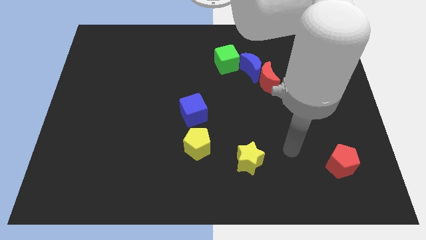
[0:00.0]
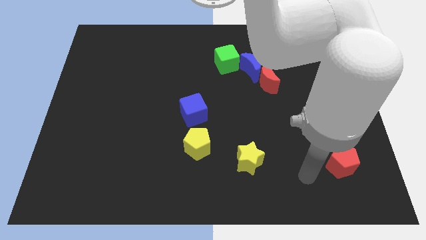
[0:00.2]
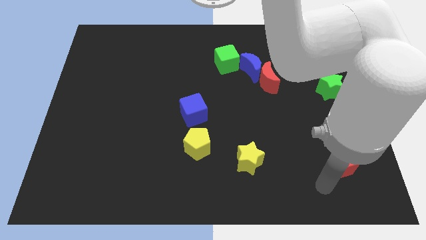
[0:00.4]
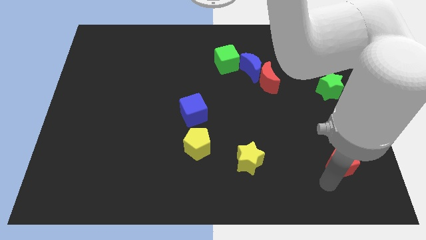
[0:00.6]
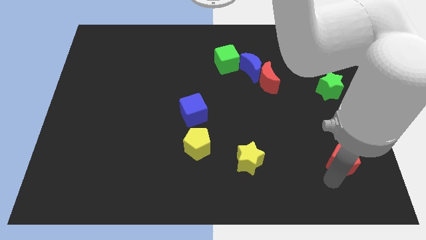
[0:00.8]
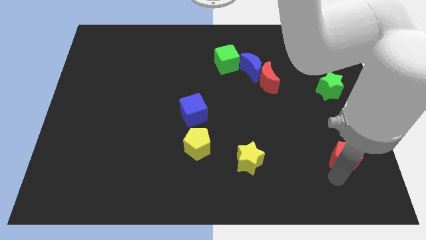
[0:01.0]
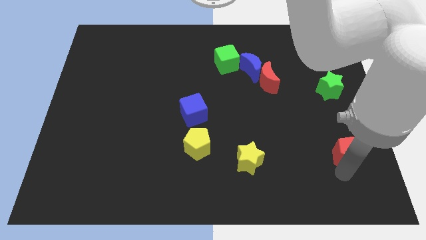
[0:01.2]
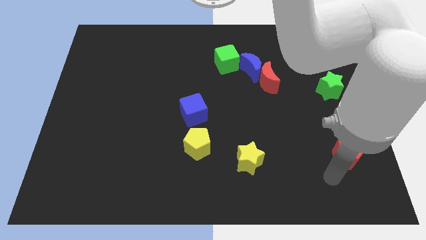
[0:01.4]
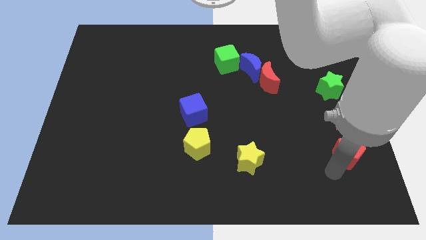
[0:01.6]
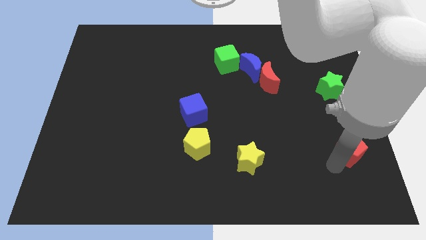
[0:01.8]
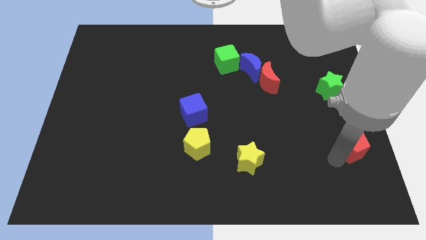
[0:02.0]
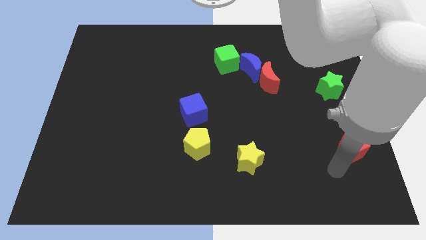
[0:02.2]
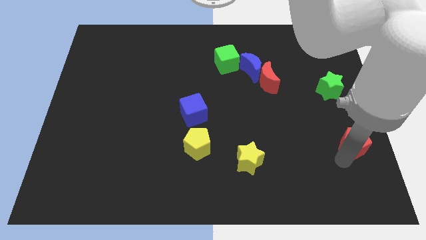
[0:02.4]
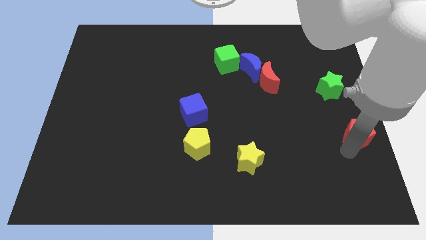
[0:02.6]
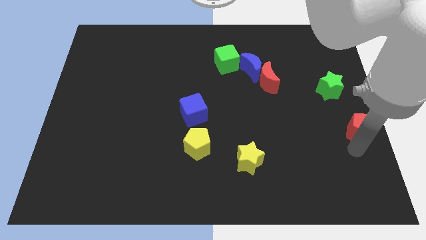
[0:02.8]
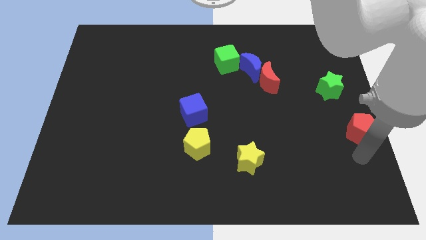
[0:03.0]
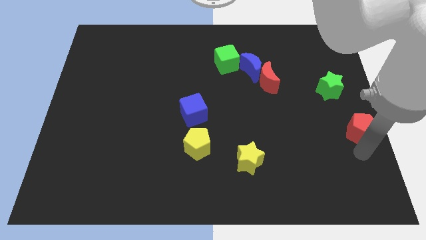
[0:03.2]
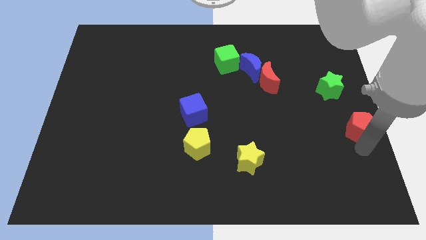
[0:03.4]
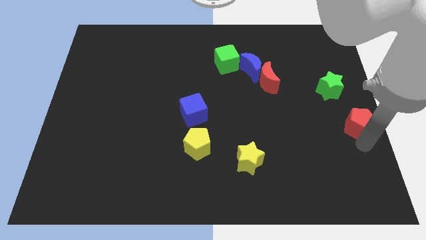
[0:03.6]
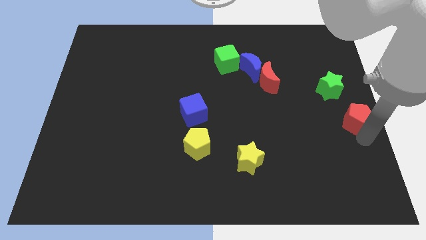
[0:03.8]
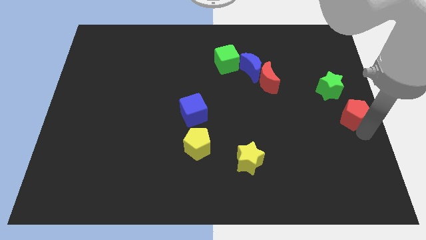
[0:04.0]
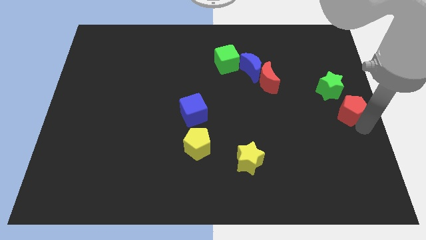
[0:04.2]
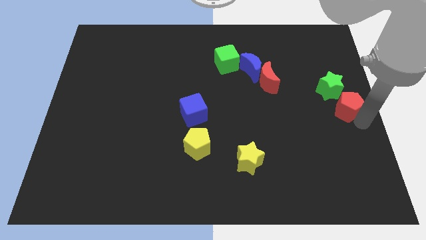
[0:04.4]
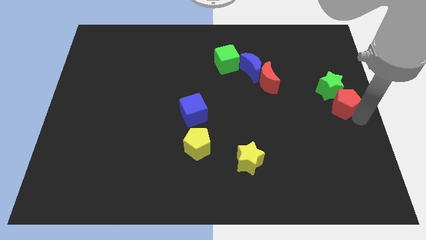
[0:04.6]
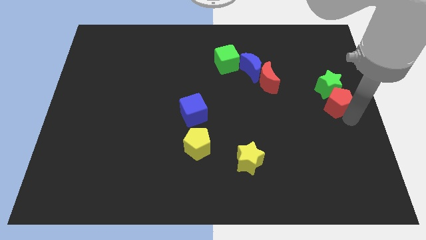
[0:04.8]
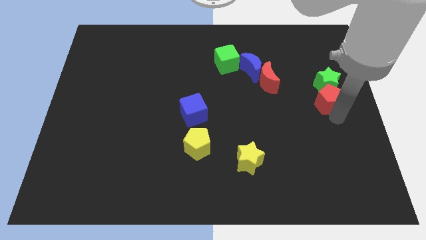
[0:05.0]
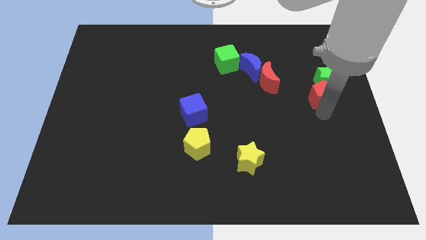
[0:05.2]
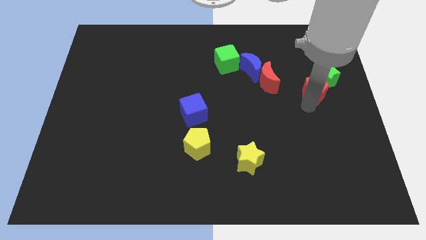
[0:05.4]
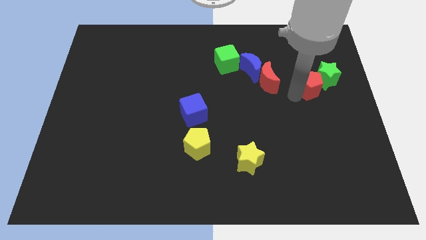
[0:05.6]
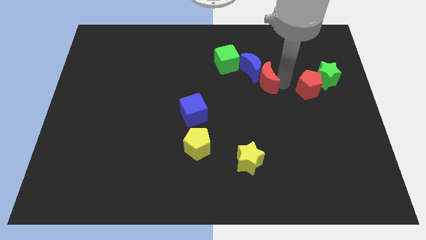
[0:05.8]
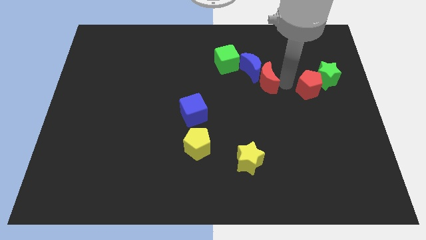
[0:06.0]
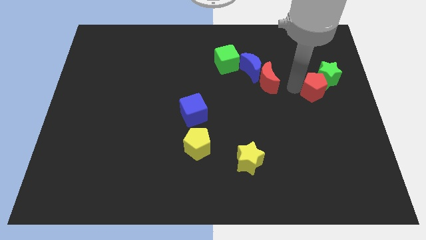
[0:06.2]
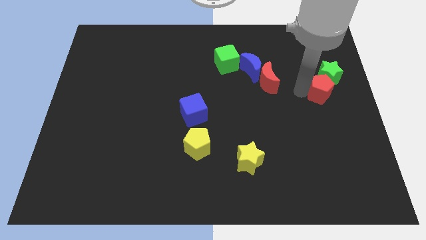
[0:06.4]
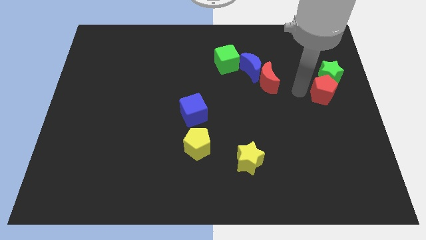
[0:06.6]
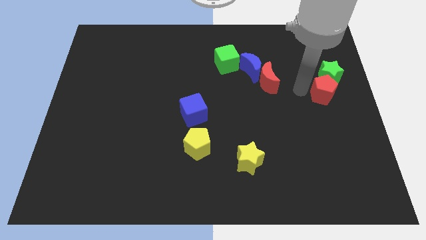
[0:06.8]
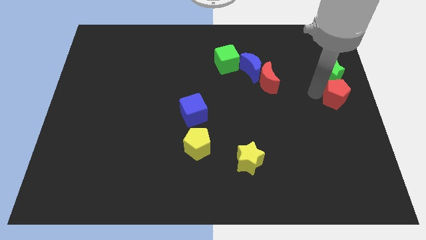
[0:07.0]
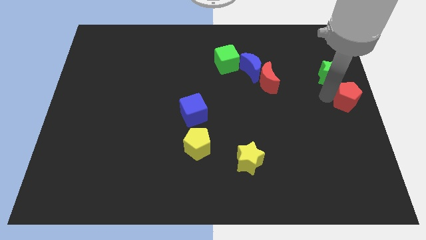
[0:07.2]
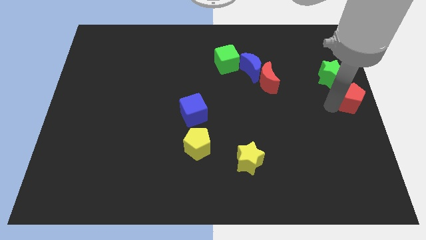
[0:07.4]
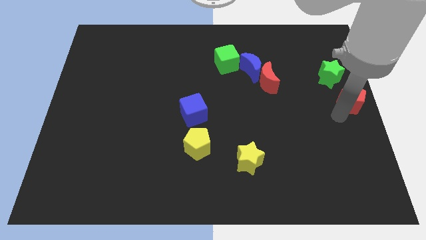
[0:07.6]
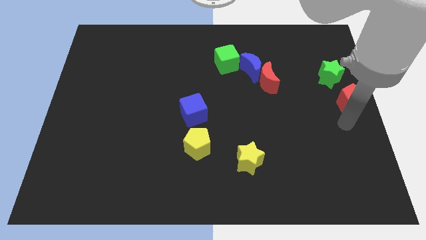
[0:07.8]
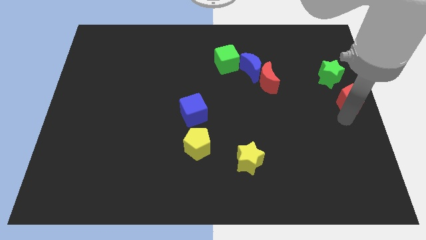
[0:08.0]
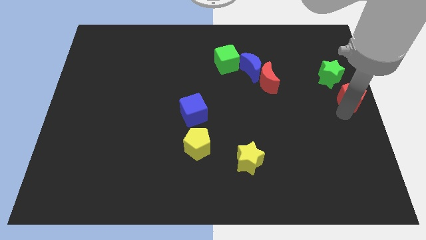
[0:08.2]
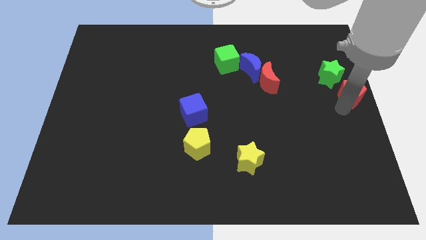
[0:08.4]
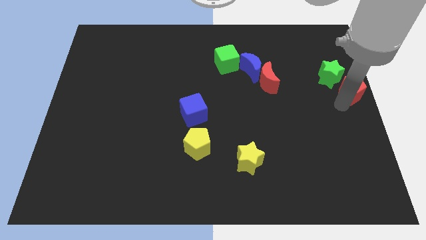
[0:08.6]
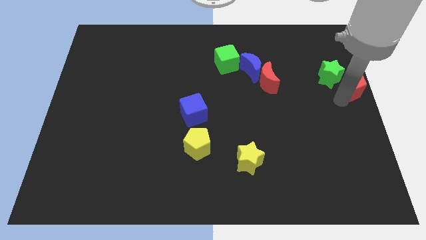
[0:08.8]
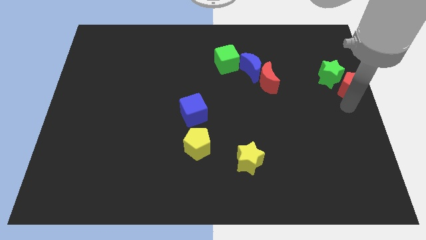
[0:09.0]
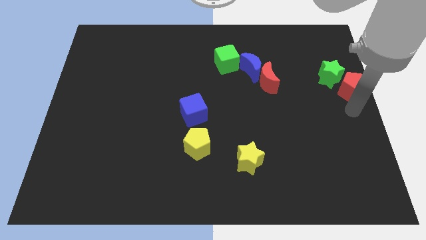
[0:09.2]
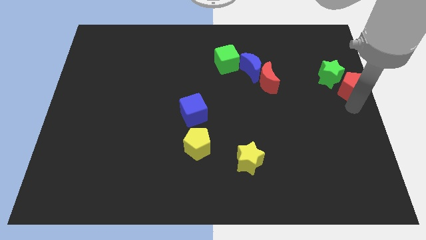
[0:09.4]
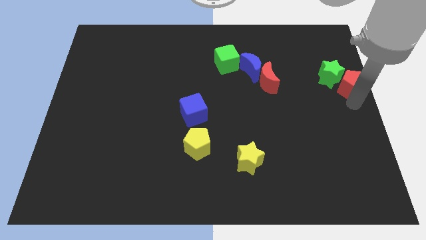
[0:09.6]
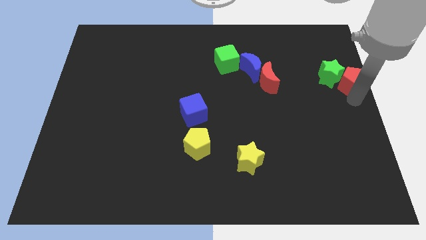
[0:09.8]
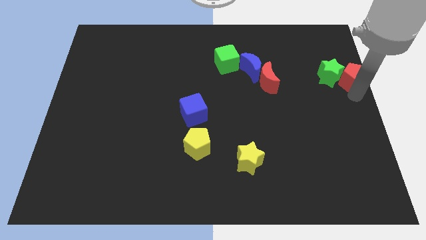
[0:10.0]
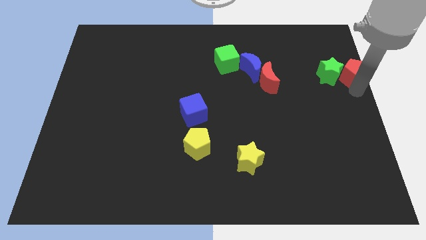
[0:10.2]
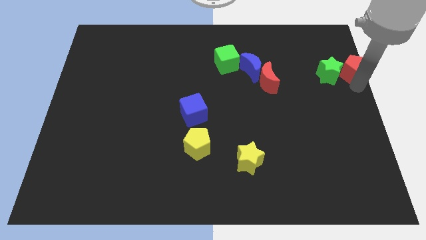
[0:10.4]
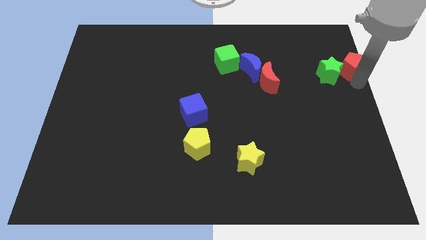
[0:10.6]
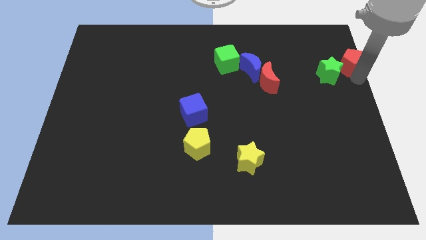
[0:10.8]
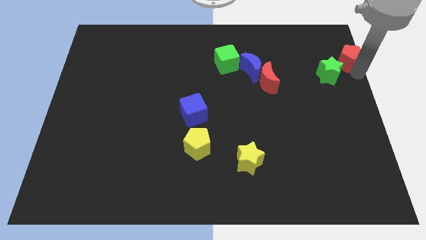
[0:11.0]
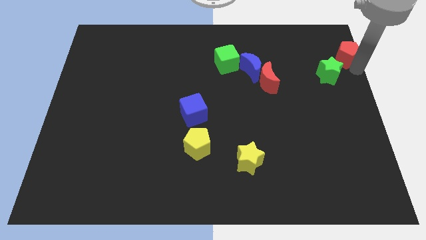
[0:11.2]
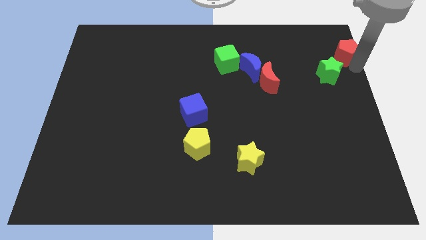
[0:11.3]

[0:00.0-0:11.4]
slide the red pentagon to the top right of the board

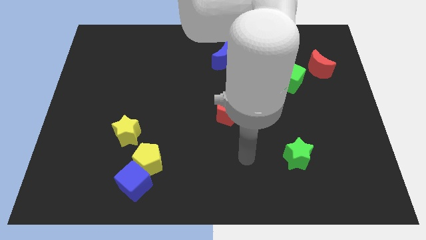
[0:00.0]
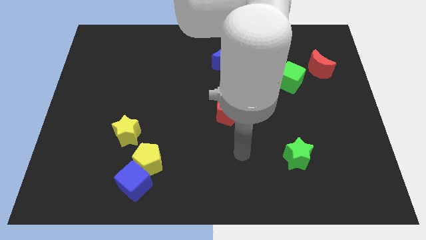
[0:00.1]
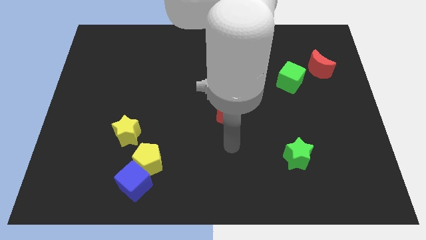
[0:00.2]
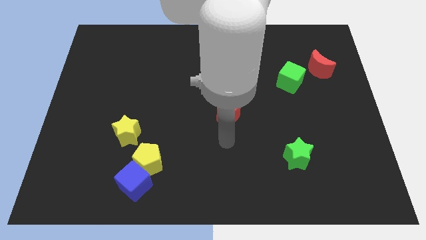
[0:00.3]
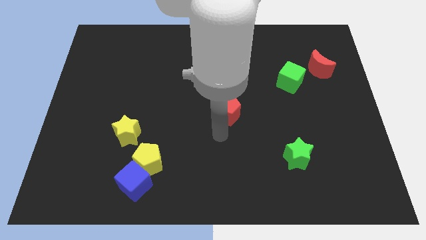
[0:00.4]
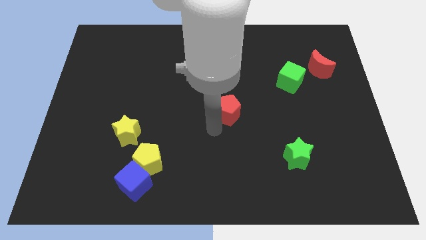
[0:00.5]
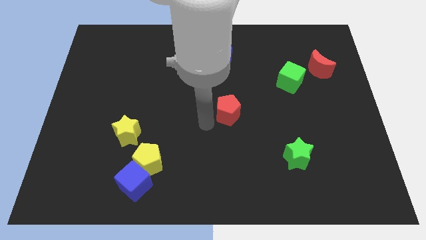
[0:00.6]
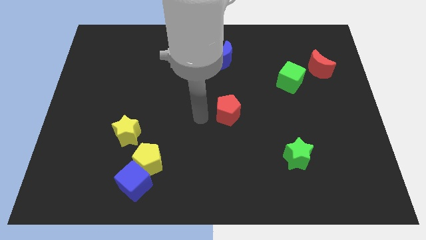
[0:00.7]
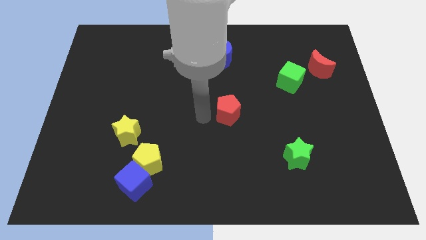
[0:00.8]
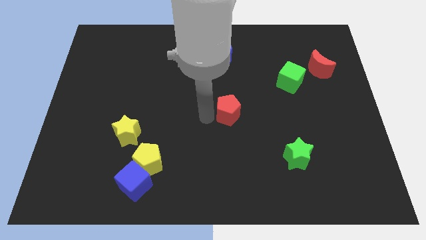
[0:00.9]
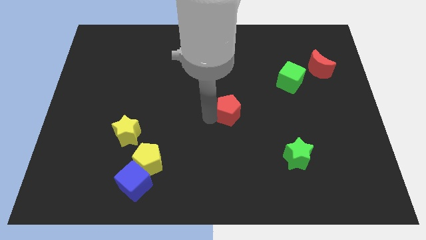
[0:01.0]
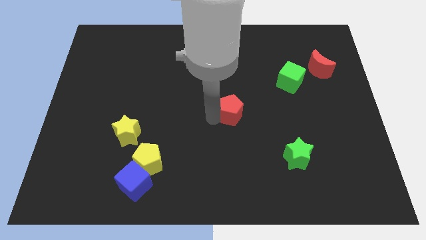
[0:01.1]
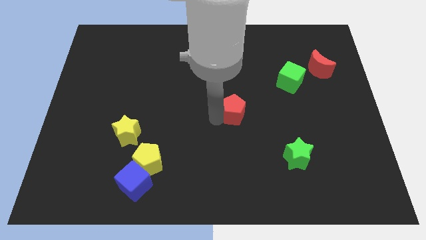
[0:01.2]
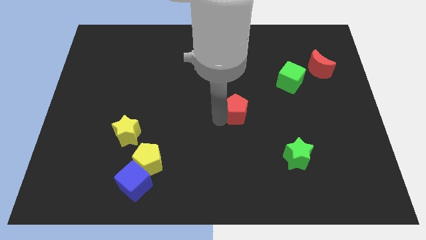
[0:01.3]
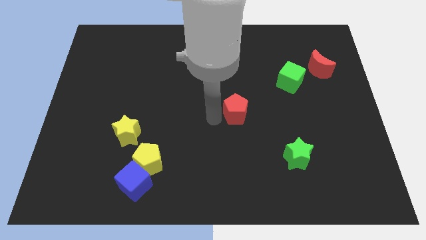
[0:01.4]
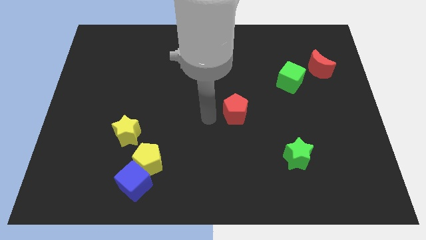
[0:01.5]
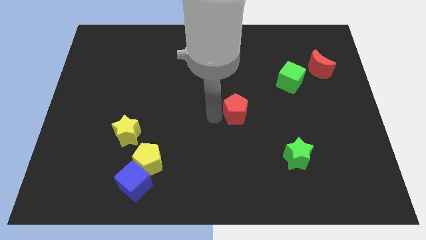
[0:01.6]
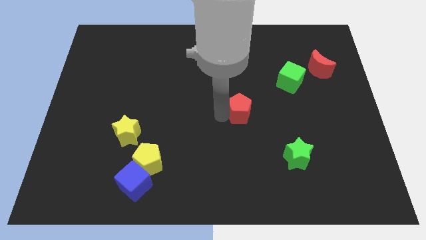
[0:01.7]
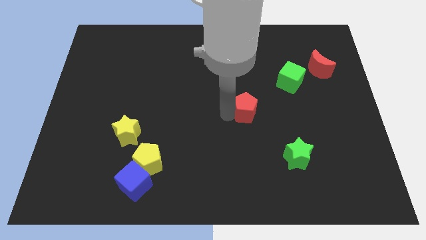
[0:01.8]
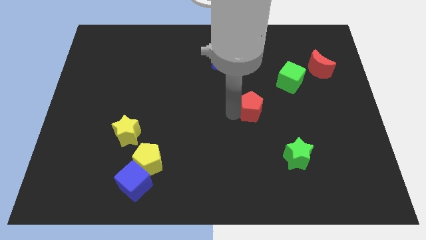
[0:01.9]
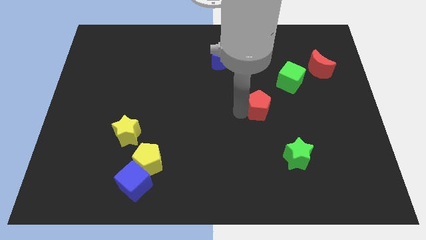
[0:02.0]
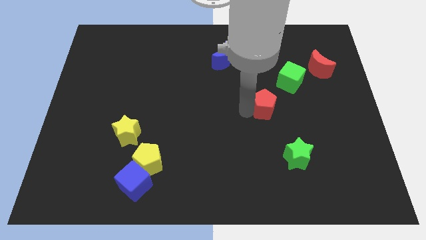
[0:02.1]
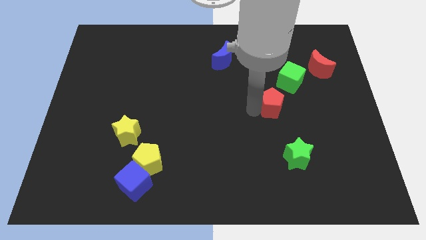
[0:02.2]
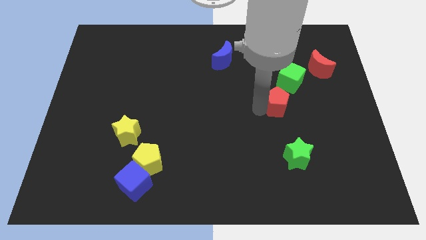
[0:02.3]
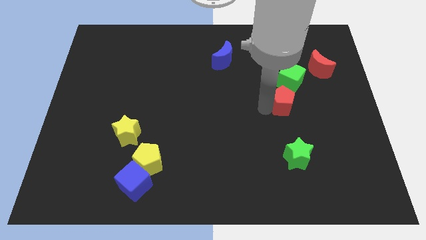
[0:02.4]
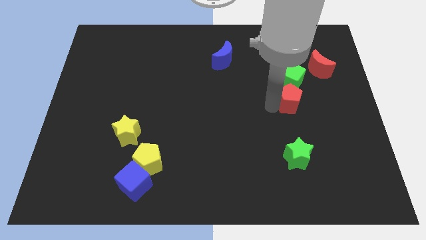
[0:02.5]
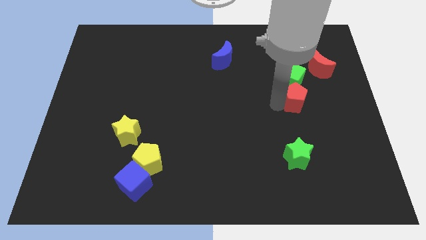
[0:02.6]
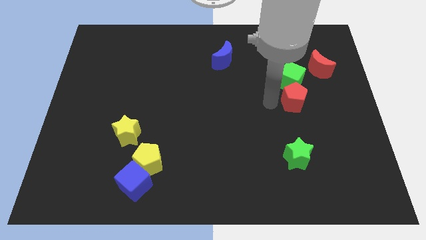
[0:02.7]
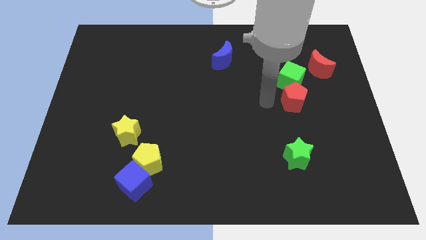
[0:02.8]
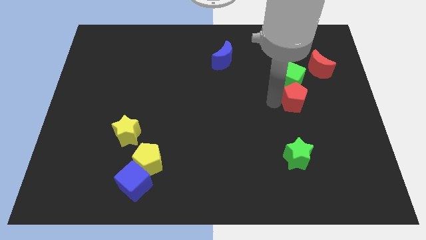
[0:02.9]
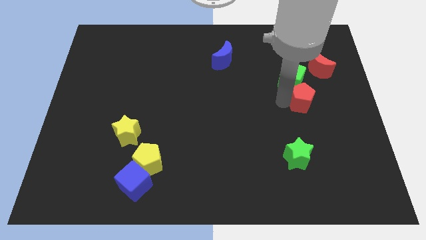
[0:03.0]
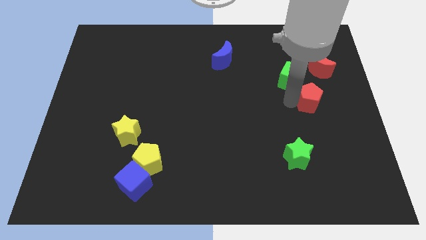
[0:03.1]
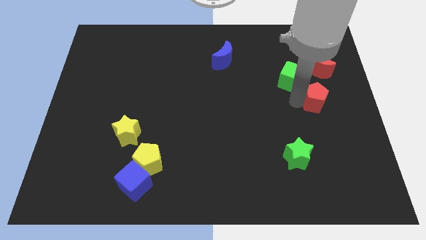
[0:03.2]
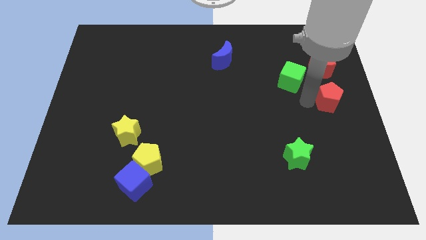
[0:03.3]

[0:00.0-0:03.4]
put the red pentagon to the right side
